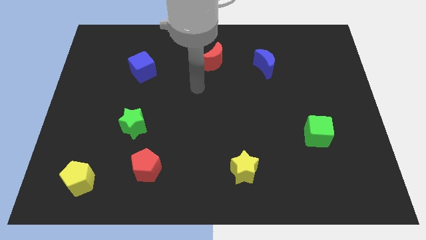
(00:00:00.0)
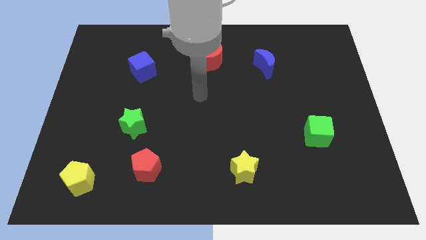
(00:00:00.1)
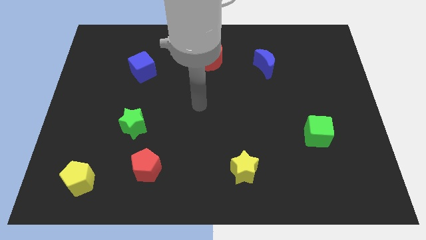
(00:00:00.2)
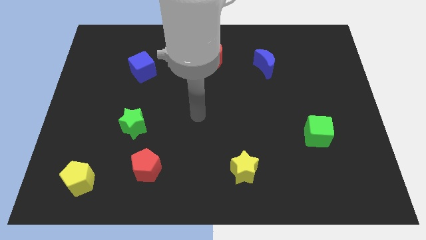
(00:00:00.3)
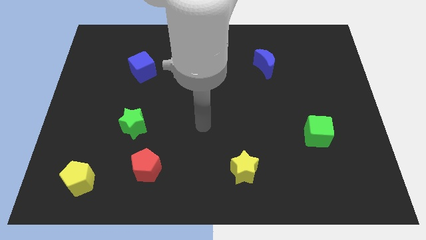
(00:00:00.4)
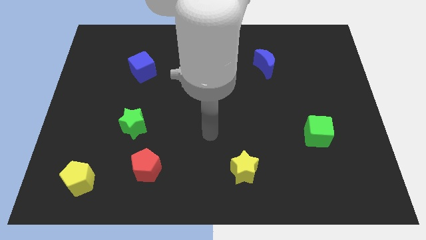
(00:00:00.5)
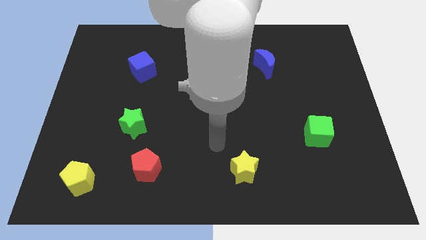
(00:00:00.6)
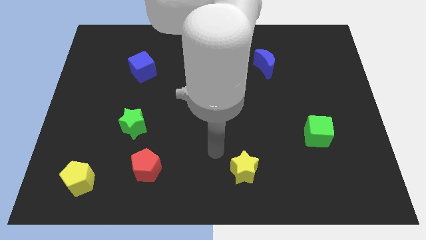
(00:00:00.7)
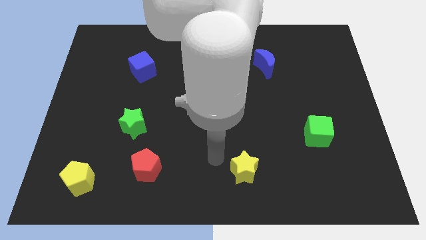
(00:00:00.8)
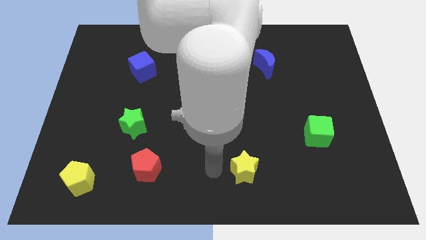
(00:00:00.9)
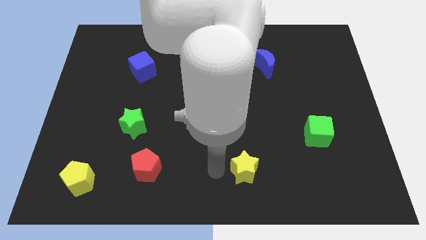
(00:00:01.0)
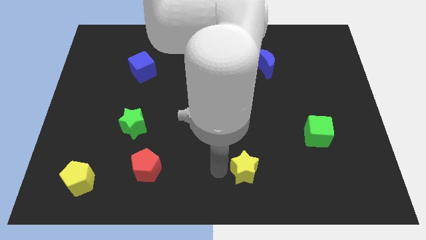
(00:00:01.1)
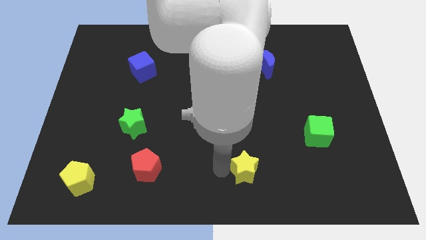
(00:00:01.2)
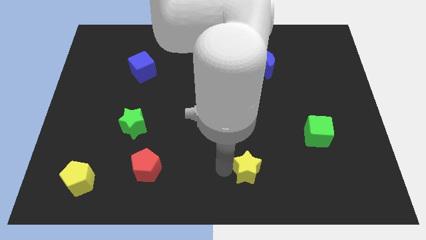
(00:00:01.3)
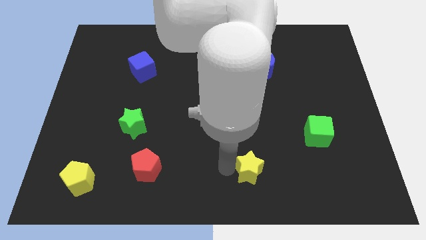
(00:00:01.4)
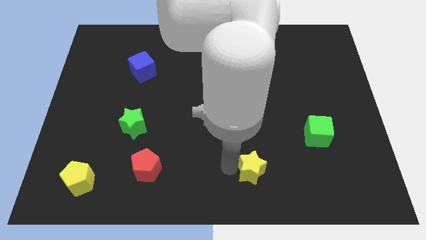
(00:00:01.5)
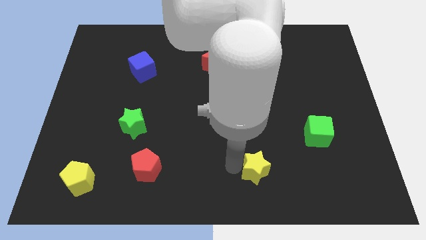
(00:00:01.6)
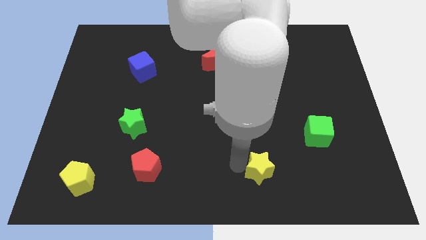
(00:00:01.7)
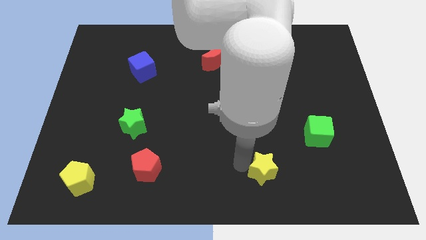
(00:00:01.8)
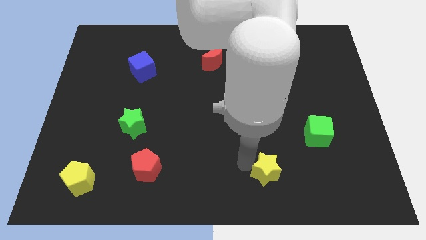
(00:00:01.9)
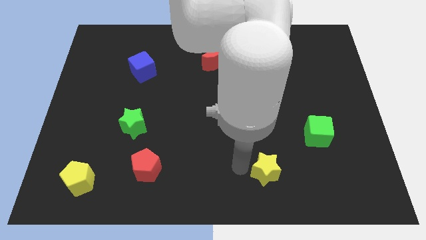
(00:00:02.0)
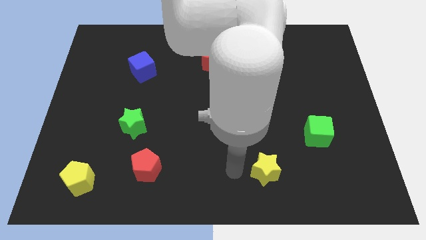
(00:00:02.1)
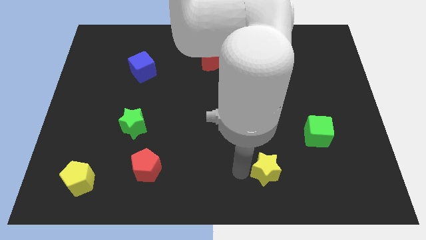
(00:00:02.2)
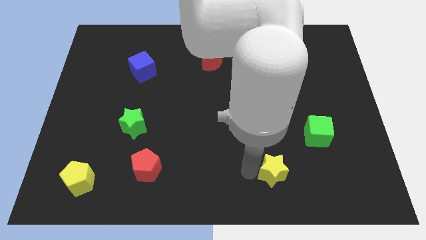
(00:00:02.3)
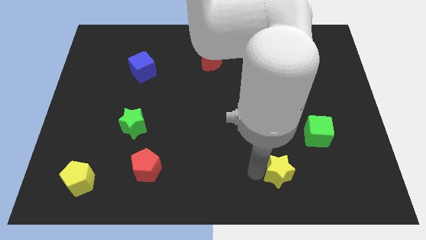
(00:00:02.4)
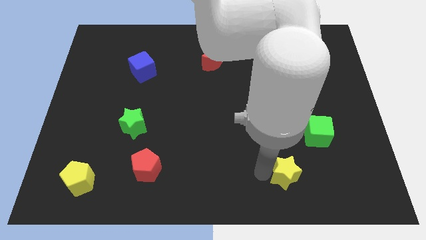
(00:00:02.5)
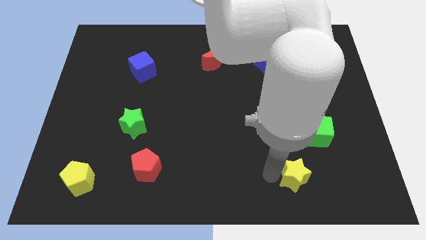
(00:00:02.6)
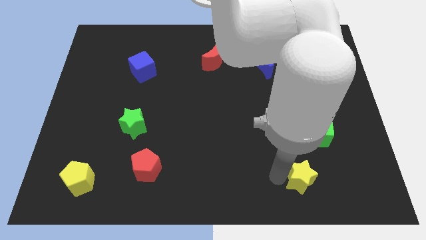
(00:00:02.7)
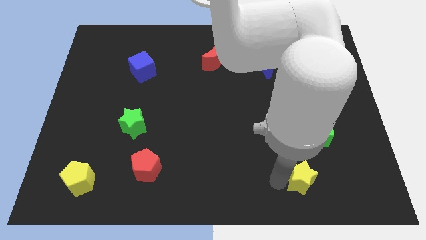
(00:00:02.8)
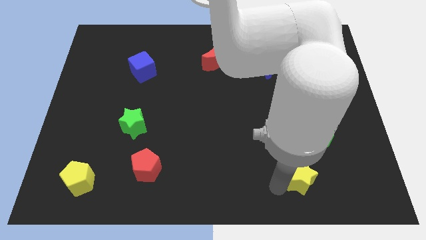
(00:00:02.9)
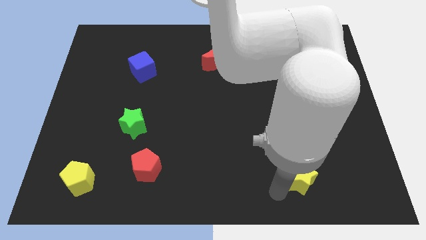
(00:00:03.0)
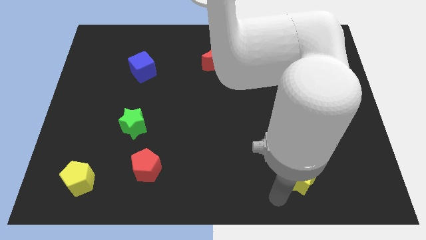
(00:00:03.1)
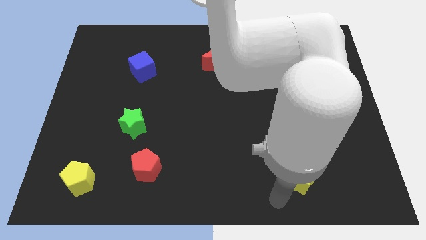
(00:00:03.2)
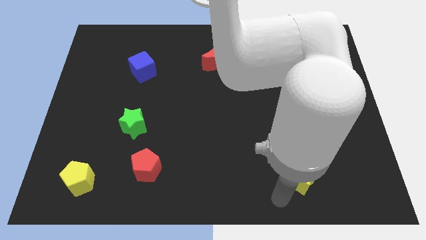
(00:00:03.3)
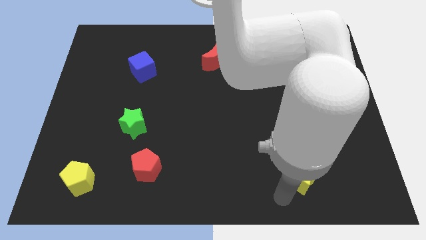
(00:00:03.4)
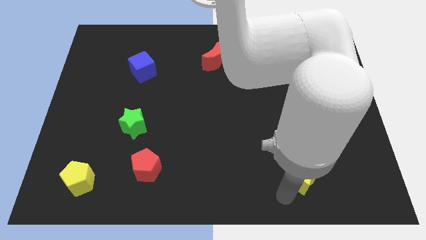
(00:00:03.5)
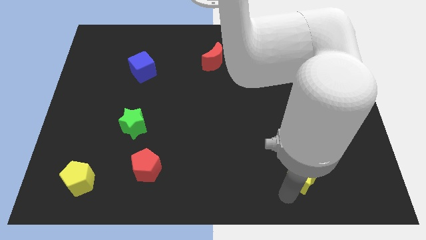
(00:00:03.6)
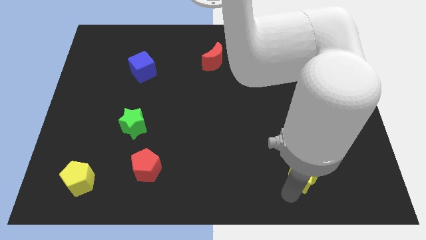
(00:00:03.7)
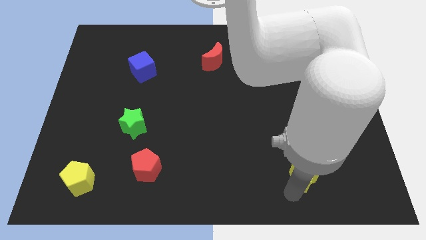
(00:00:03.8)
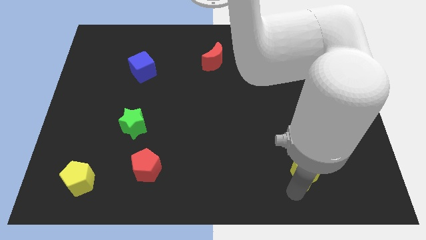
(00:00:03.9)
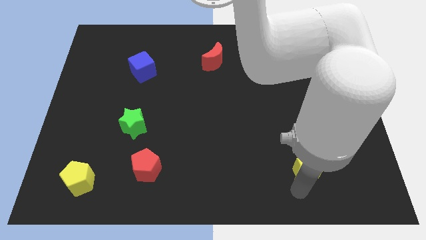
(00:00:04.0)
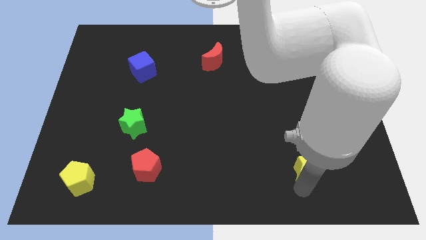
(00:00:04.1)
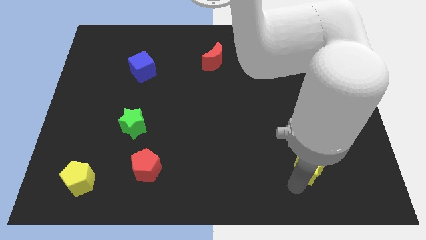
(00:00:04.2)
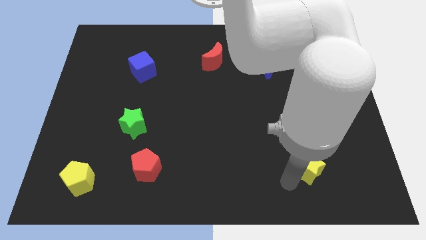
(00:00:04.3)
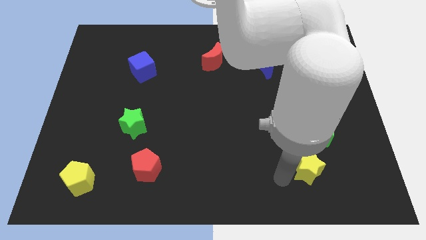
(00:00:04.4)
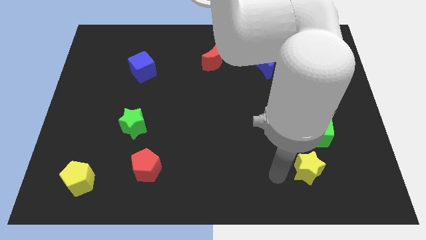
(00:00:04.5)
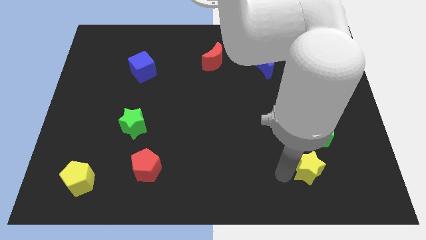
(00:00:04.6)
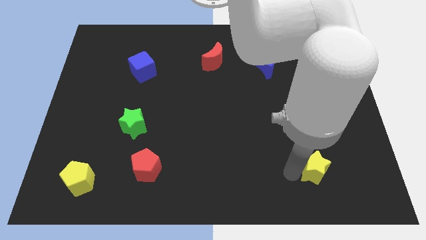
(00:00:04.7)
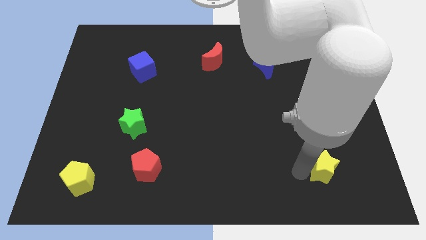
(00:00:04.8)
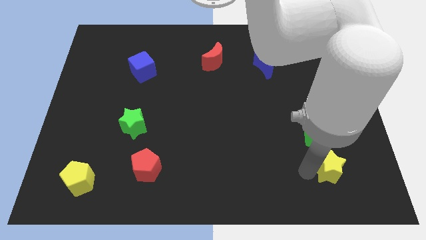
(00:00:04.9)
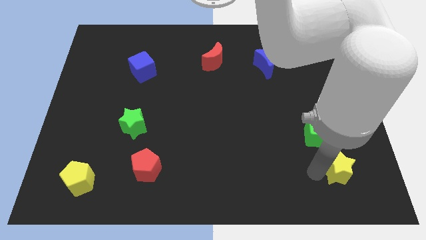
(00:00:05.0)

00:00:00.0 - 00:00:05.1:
slide the yellow star to the bottom right of the green cube

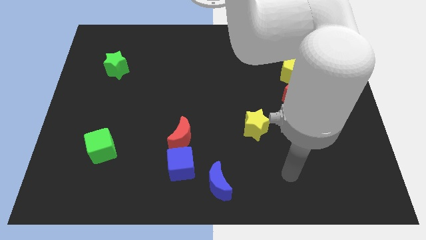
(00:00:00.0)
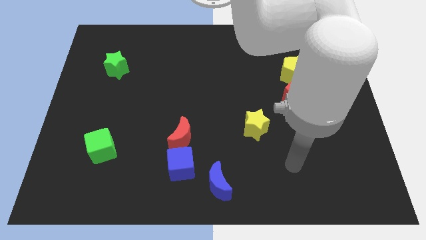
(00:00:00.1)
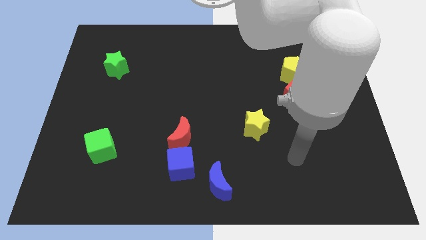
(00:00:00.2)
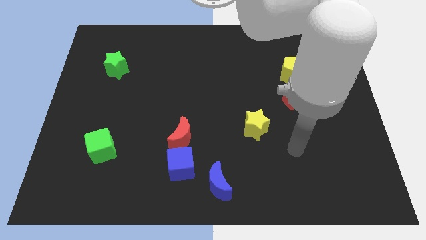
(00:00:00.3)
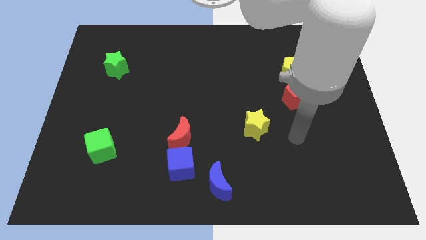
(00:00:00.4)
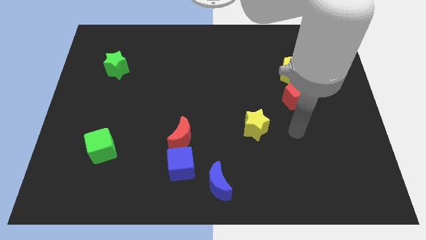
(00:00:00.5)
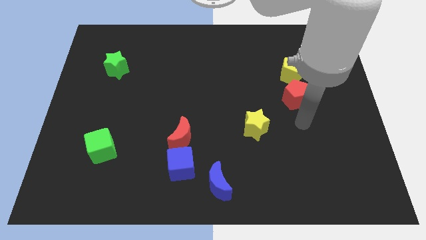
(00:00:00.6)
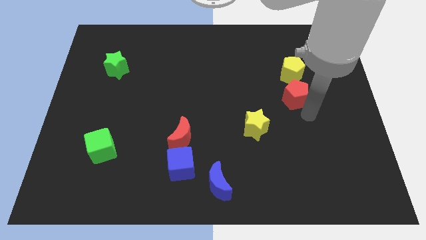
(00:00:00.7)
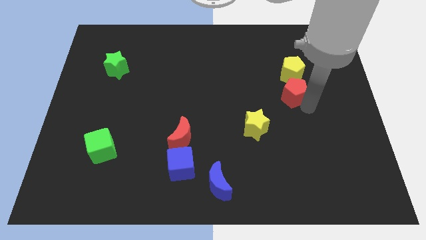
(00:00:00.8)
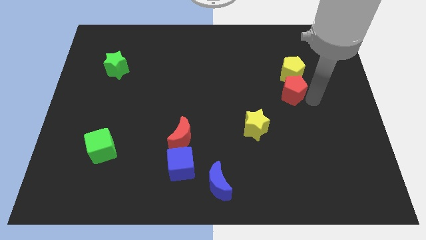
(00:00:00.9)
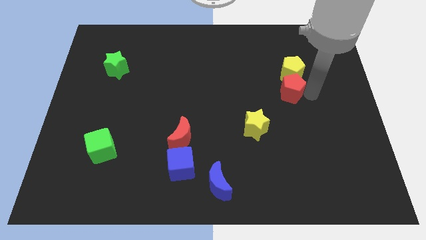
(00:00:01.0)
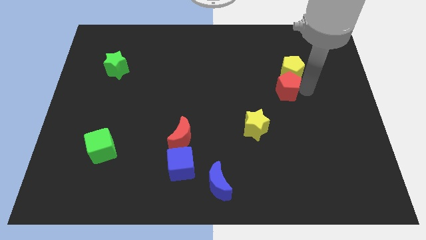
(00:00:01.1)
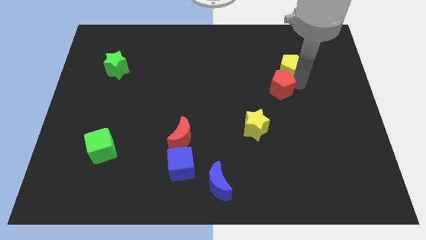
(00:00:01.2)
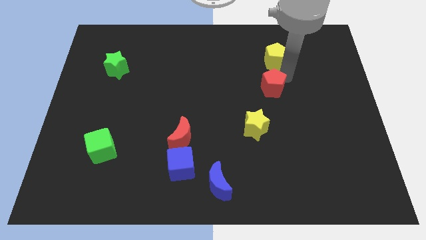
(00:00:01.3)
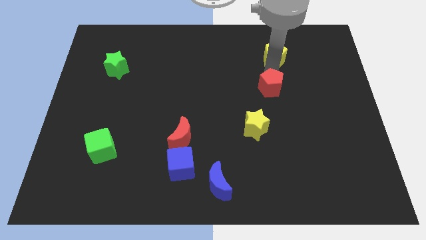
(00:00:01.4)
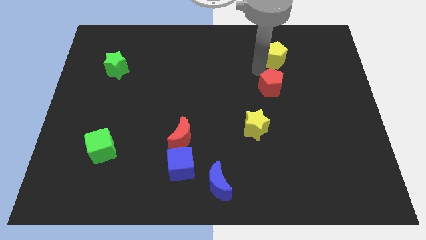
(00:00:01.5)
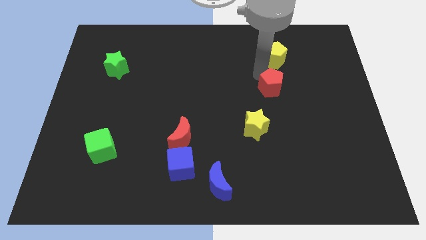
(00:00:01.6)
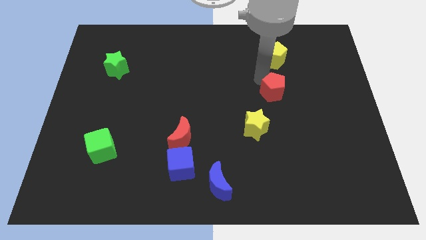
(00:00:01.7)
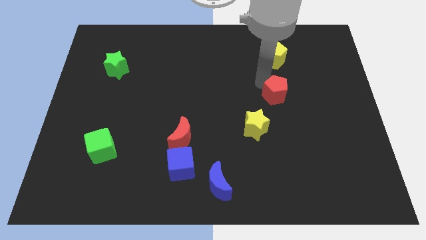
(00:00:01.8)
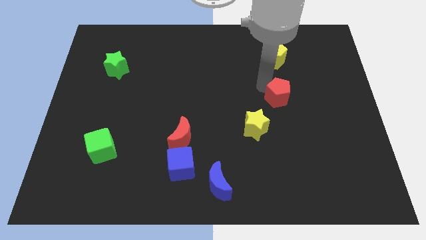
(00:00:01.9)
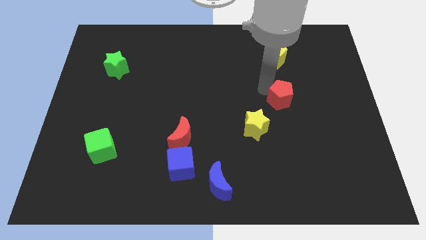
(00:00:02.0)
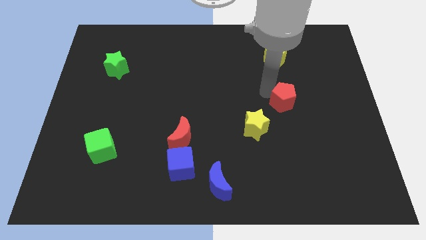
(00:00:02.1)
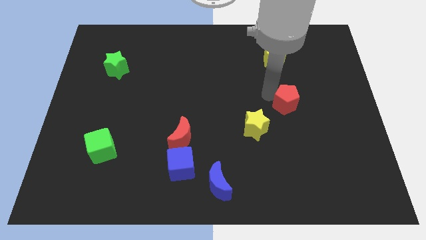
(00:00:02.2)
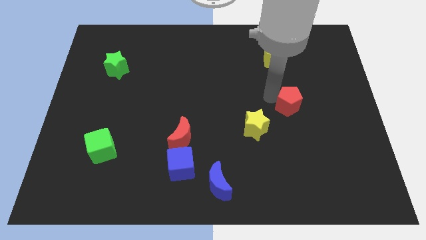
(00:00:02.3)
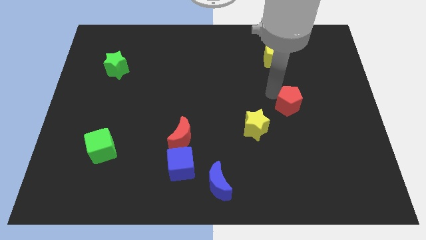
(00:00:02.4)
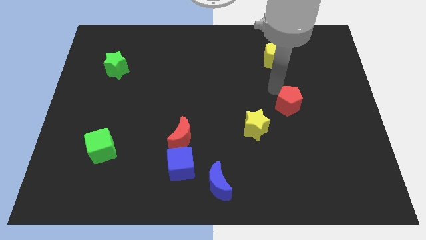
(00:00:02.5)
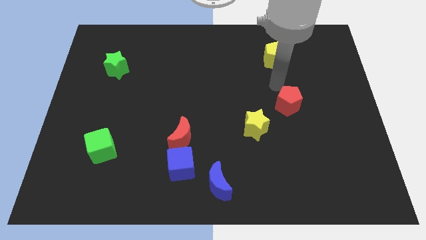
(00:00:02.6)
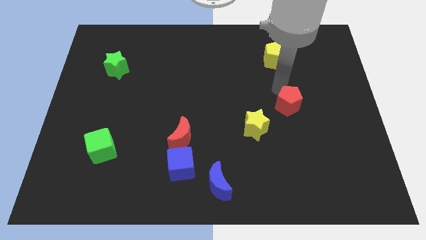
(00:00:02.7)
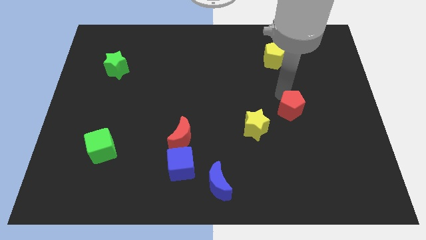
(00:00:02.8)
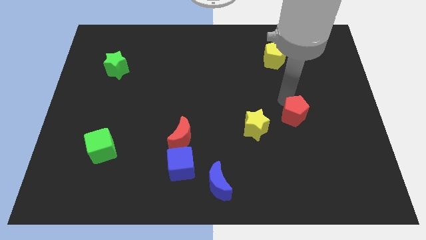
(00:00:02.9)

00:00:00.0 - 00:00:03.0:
slide the red pentagon to the right of the yellow star
